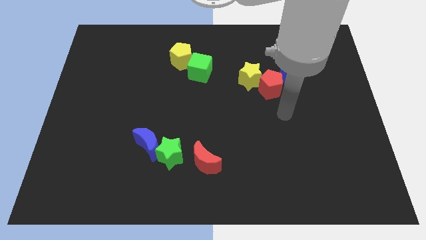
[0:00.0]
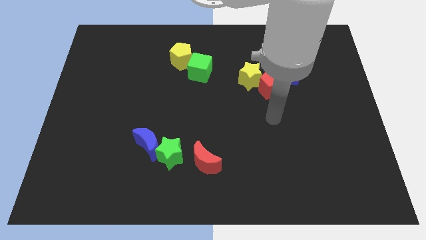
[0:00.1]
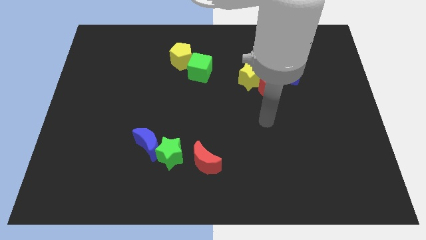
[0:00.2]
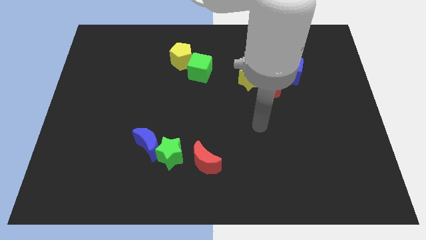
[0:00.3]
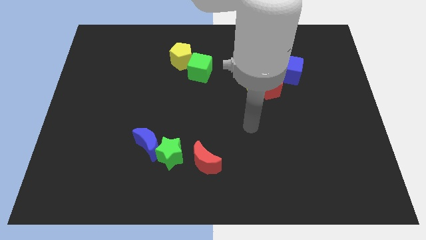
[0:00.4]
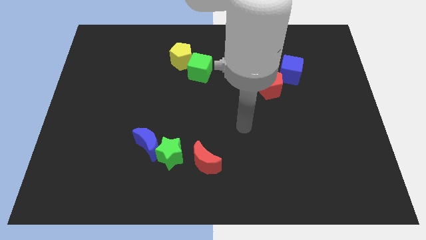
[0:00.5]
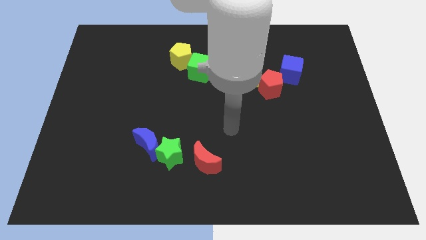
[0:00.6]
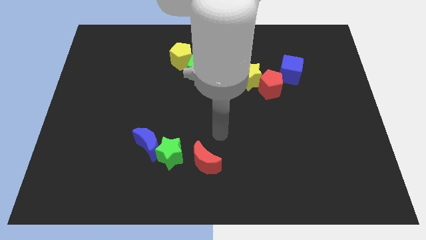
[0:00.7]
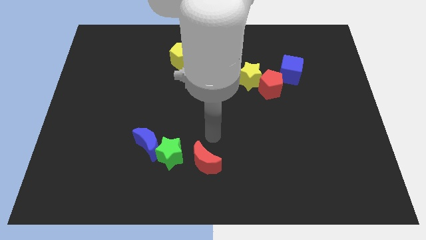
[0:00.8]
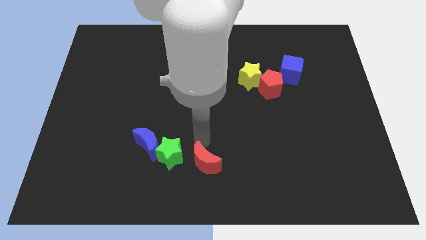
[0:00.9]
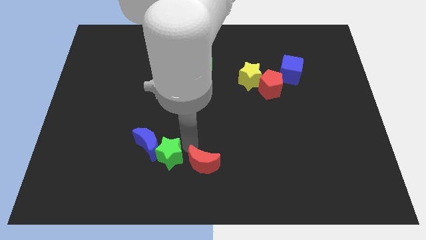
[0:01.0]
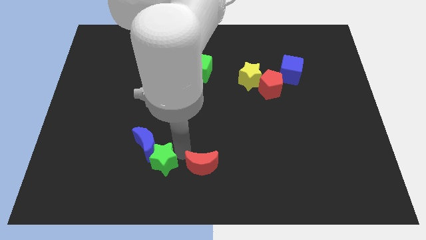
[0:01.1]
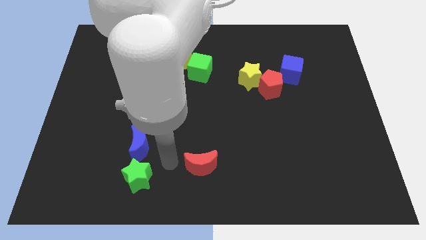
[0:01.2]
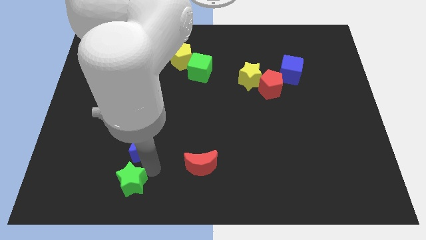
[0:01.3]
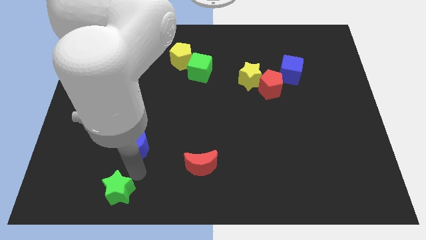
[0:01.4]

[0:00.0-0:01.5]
separate the blue moon from the green star

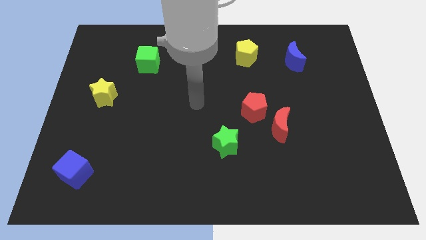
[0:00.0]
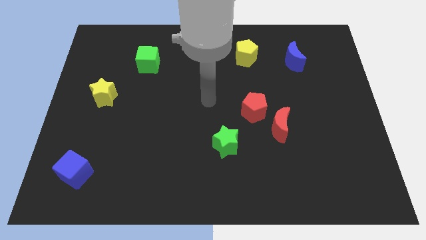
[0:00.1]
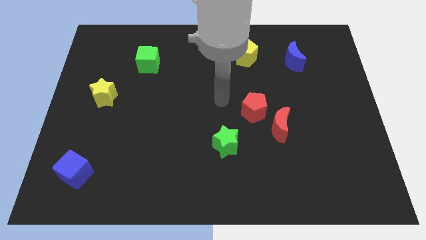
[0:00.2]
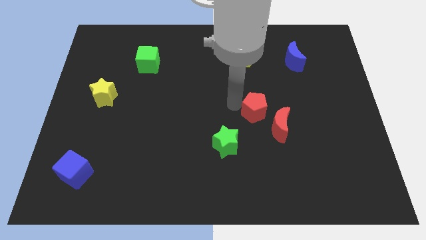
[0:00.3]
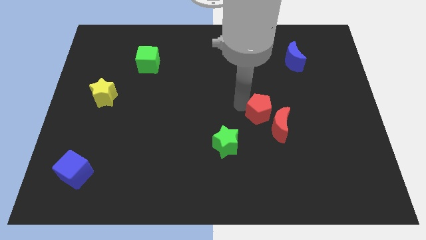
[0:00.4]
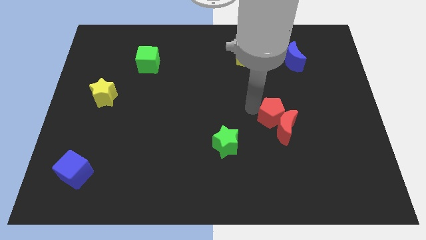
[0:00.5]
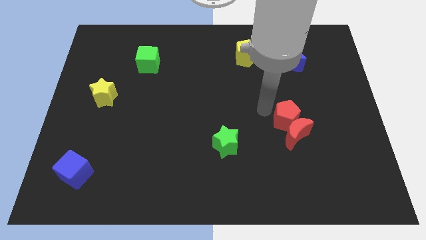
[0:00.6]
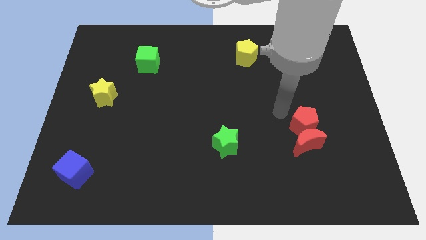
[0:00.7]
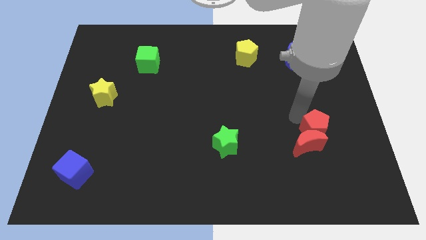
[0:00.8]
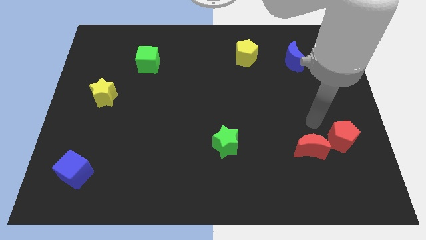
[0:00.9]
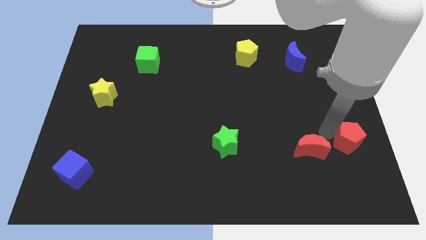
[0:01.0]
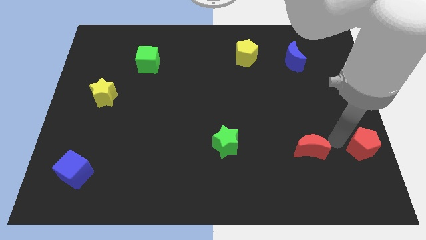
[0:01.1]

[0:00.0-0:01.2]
separate the red moon from the red pentagon

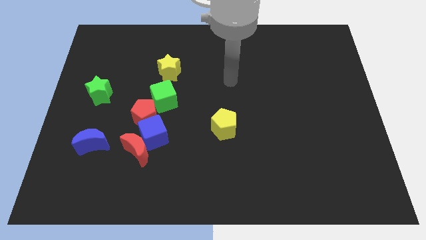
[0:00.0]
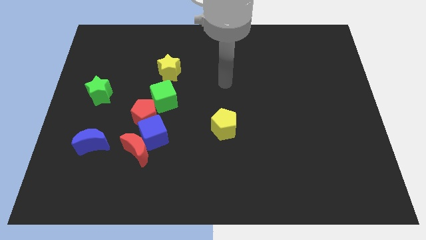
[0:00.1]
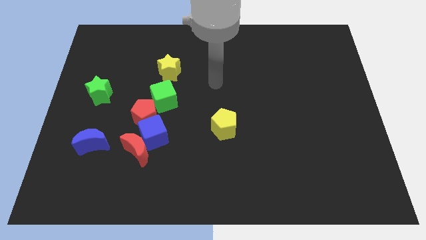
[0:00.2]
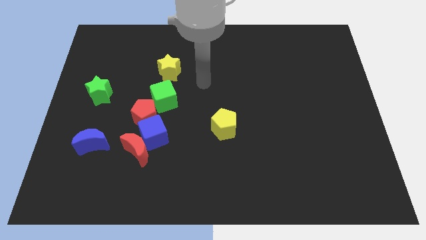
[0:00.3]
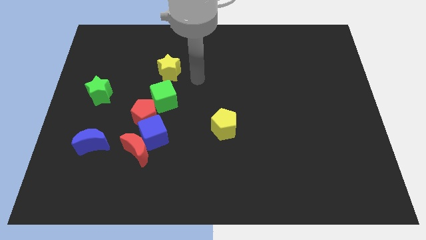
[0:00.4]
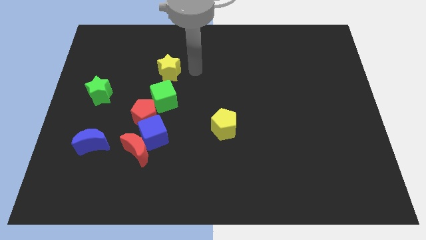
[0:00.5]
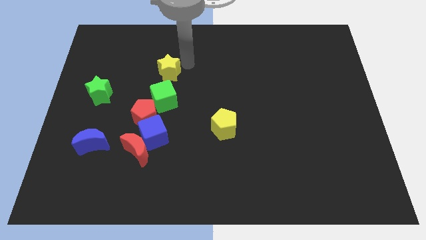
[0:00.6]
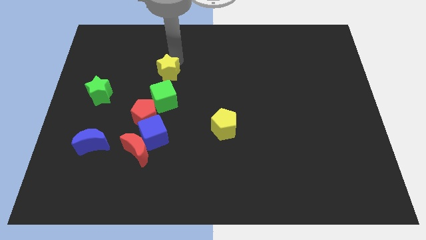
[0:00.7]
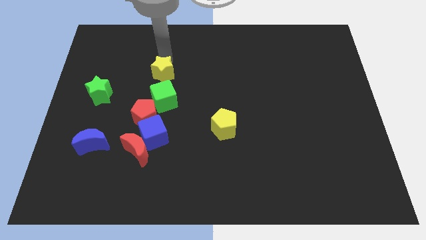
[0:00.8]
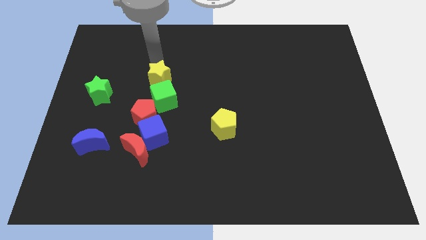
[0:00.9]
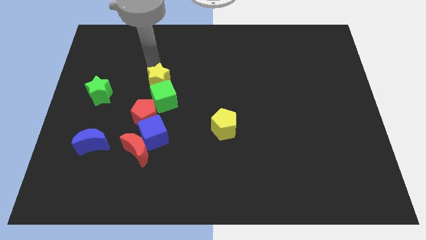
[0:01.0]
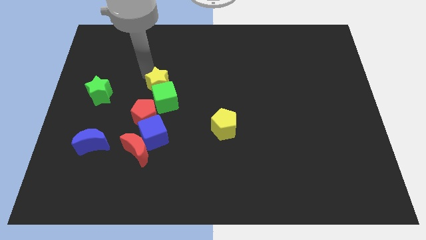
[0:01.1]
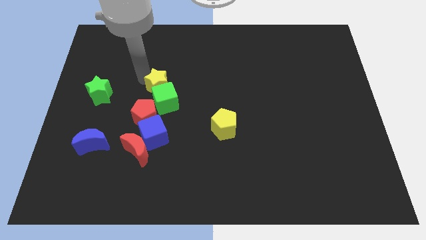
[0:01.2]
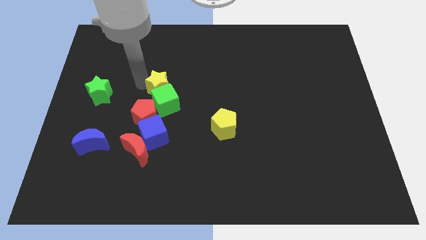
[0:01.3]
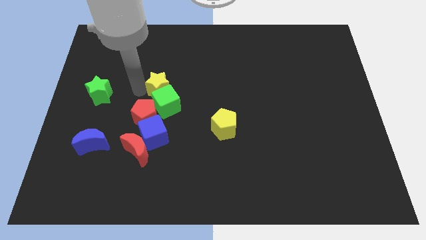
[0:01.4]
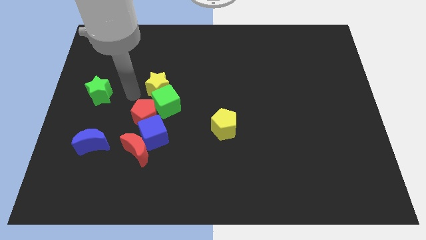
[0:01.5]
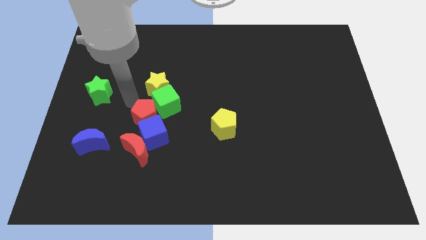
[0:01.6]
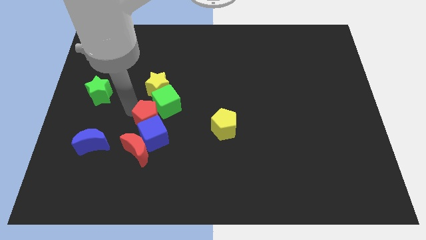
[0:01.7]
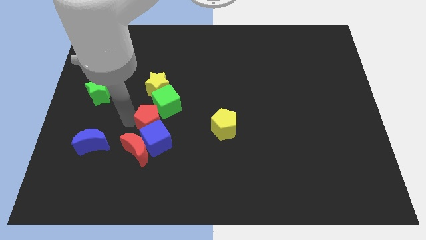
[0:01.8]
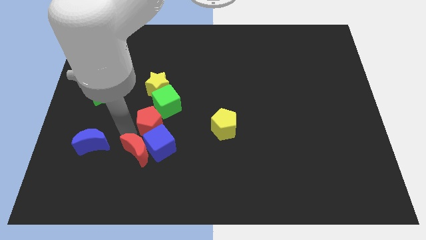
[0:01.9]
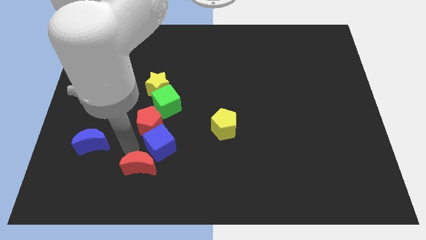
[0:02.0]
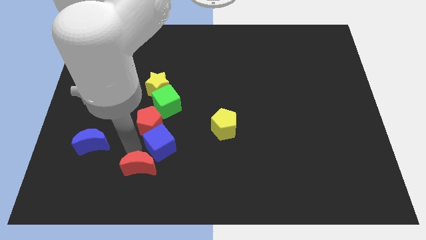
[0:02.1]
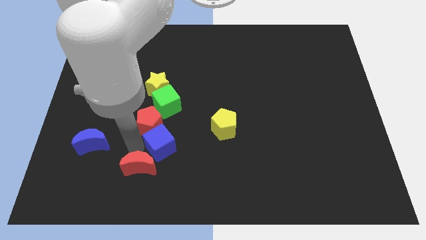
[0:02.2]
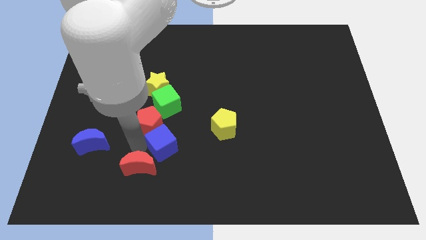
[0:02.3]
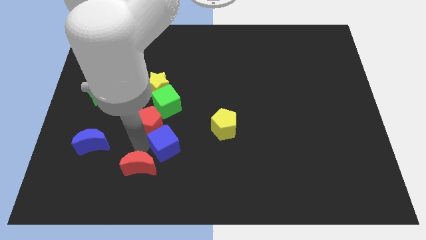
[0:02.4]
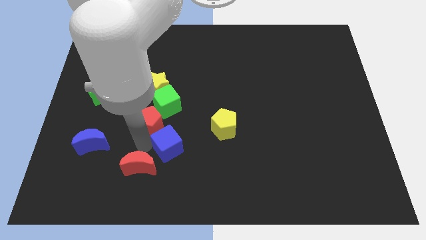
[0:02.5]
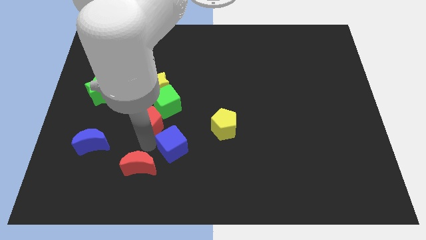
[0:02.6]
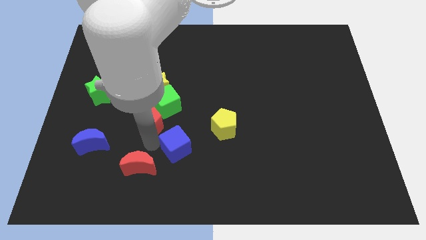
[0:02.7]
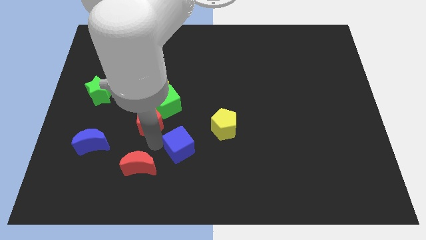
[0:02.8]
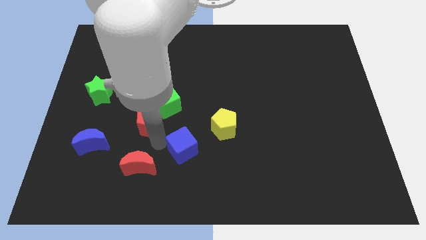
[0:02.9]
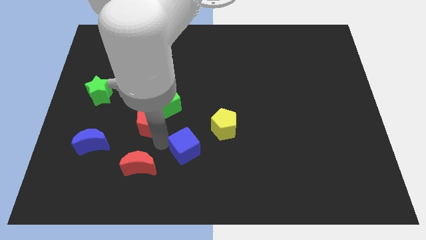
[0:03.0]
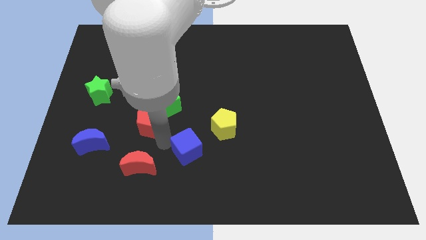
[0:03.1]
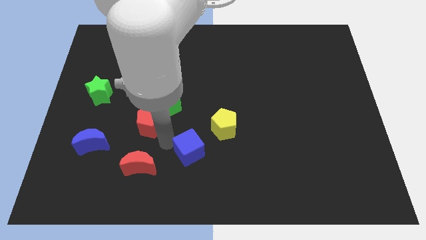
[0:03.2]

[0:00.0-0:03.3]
move the blue cube away from the red moon and red pentagon

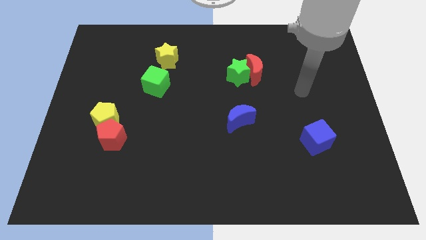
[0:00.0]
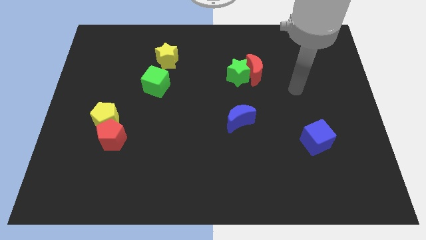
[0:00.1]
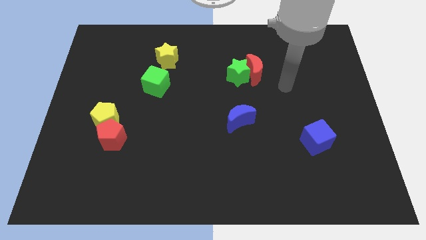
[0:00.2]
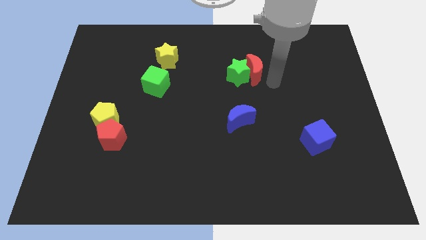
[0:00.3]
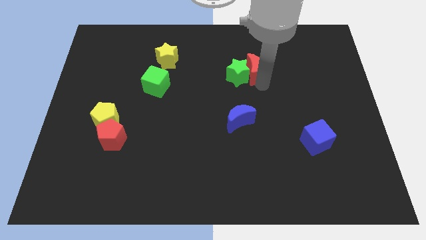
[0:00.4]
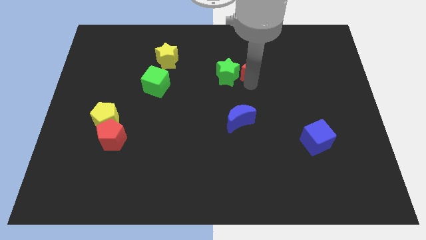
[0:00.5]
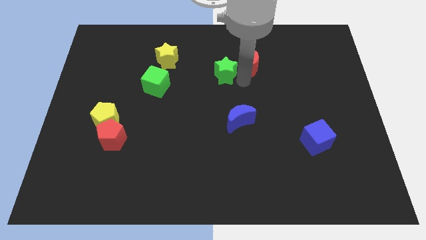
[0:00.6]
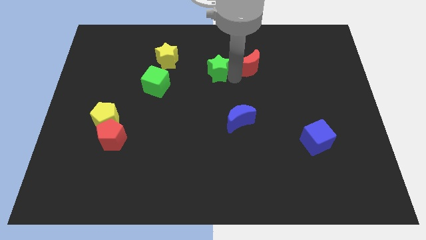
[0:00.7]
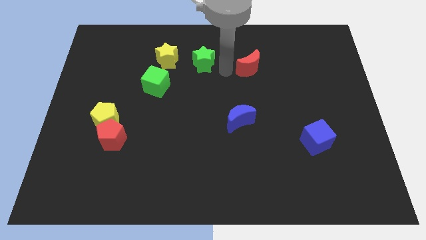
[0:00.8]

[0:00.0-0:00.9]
pull the red moon apart from the green star

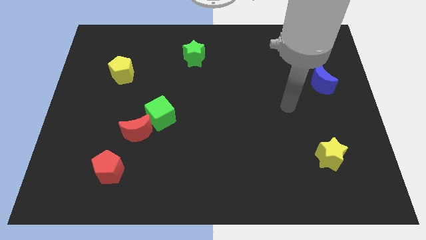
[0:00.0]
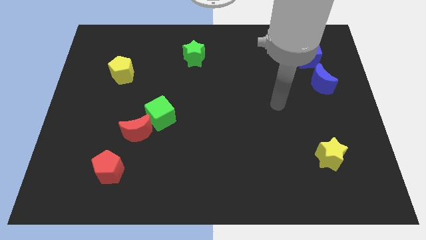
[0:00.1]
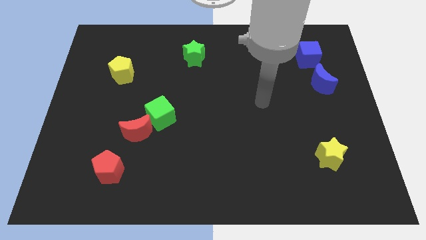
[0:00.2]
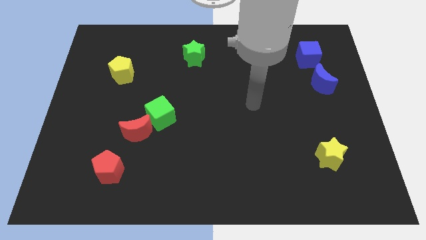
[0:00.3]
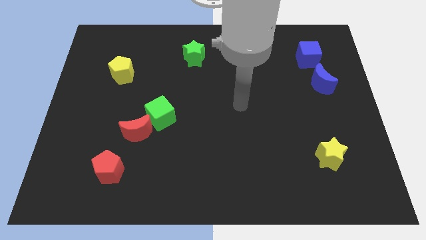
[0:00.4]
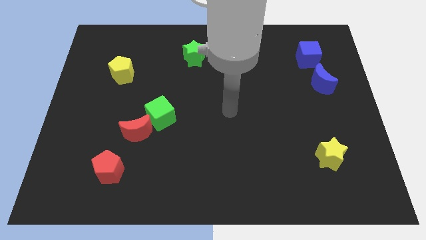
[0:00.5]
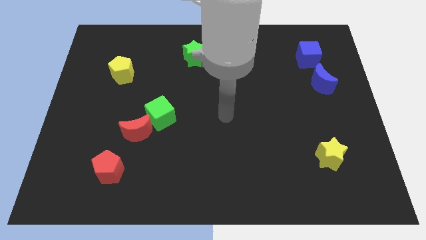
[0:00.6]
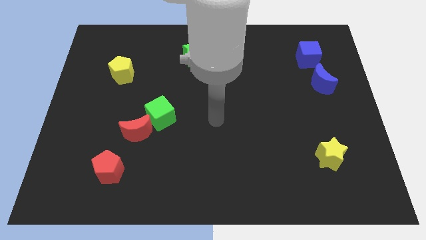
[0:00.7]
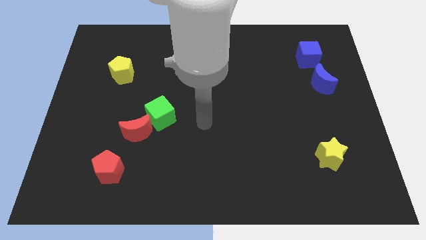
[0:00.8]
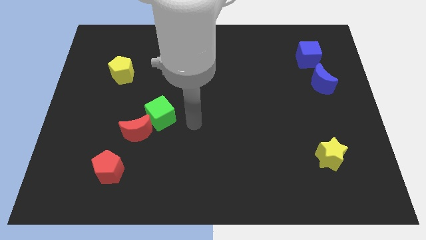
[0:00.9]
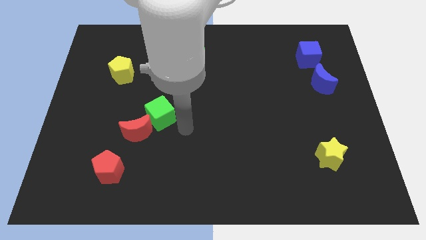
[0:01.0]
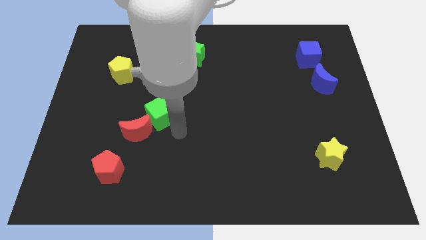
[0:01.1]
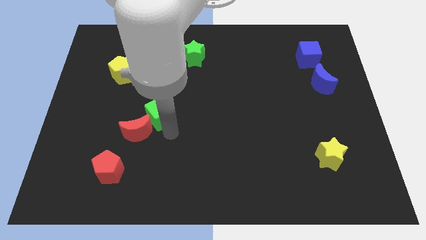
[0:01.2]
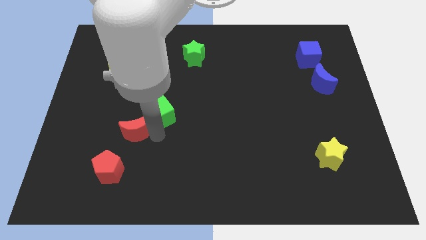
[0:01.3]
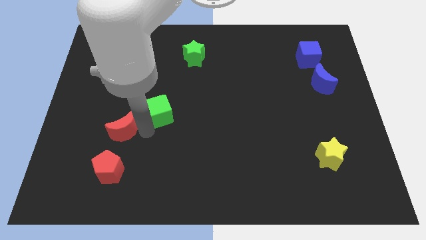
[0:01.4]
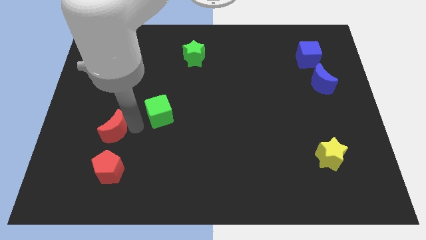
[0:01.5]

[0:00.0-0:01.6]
move the green cube away from the red moon

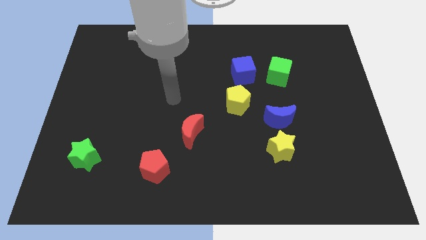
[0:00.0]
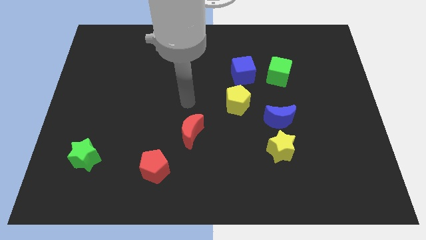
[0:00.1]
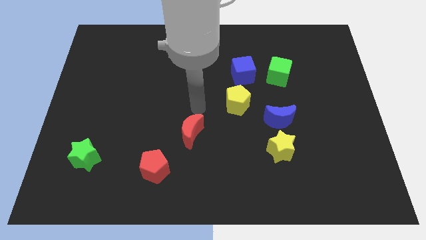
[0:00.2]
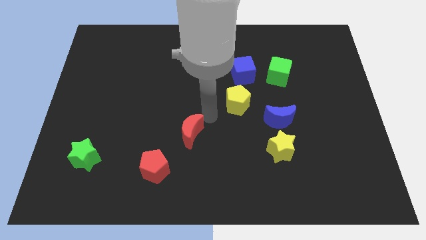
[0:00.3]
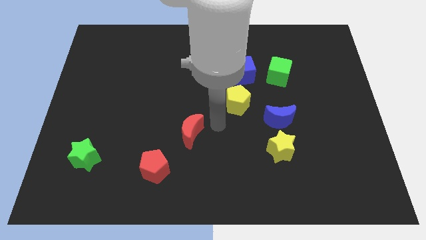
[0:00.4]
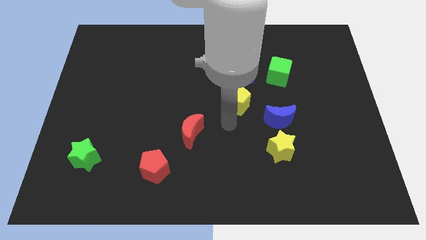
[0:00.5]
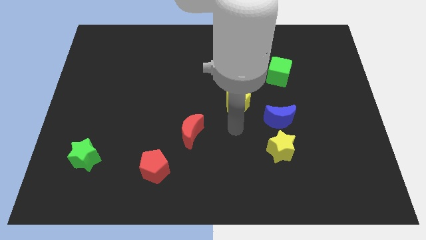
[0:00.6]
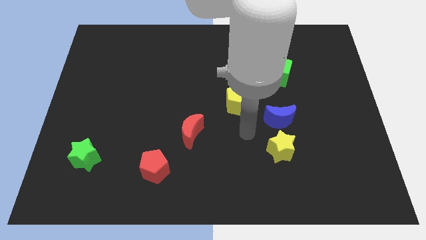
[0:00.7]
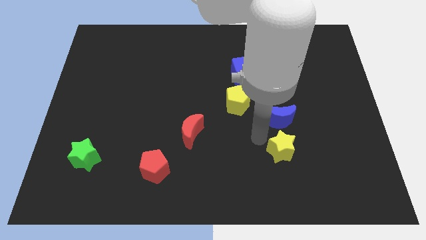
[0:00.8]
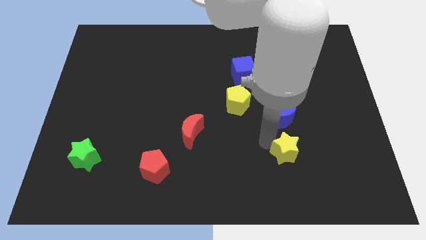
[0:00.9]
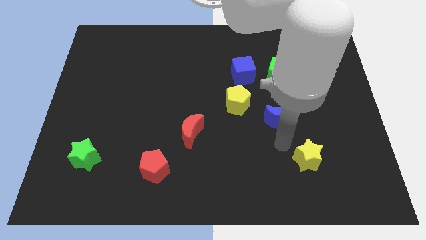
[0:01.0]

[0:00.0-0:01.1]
pull the blue moon apart from the yellow star
